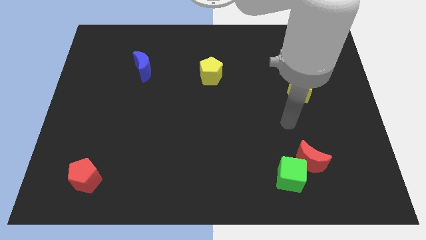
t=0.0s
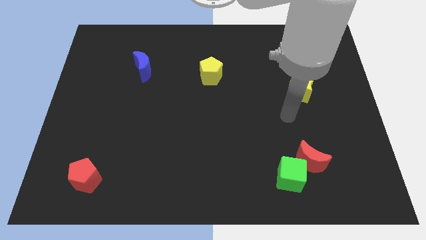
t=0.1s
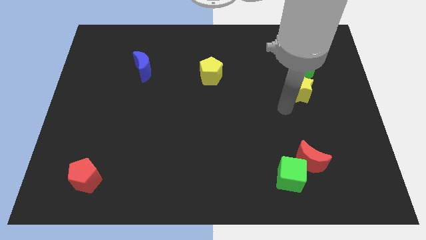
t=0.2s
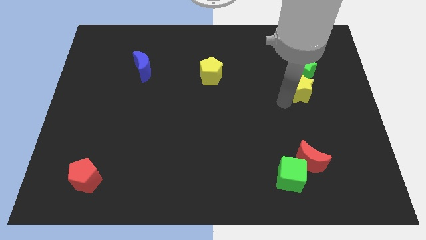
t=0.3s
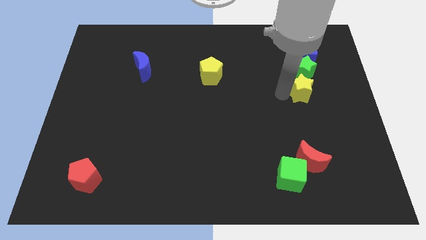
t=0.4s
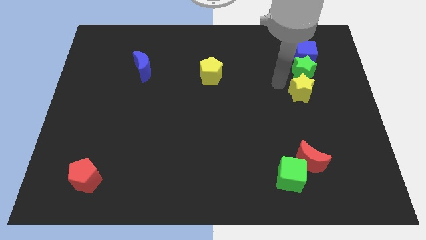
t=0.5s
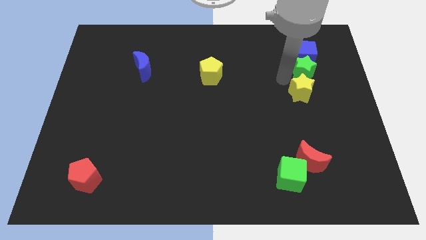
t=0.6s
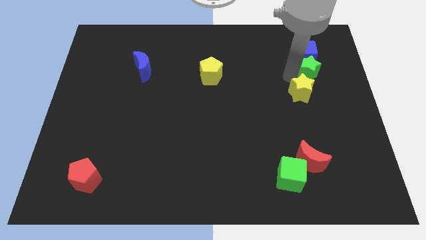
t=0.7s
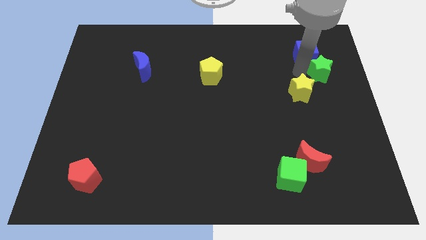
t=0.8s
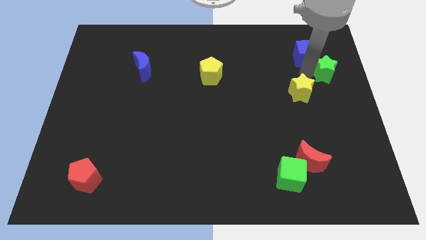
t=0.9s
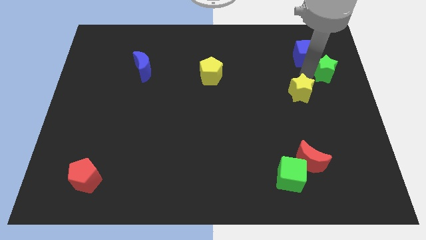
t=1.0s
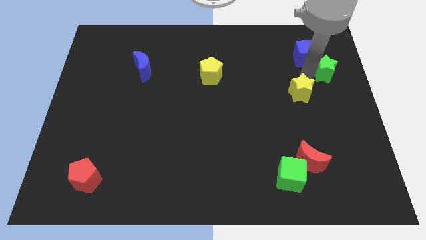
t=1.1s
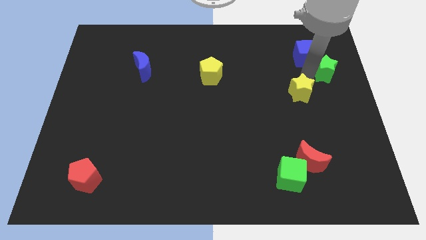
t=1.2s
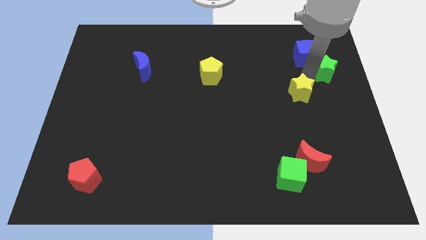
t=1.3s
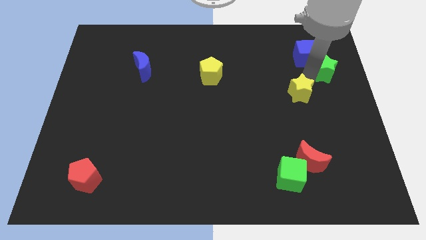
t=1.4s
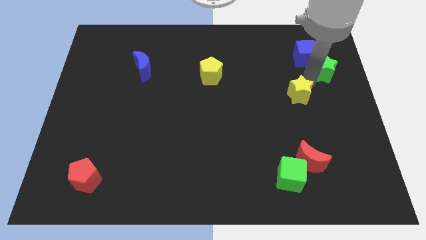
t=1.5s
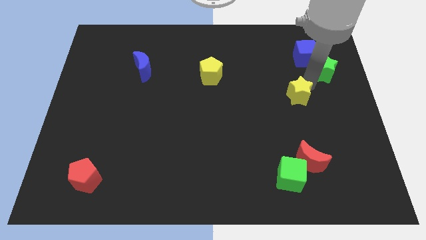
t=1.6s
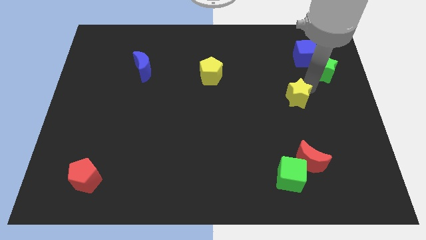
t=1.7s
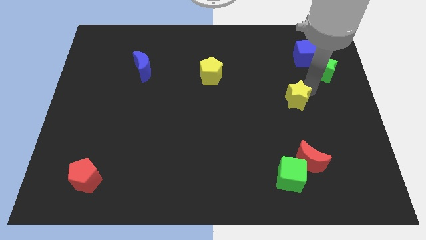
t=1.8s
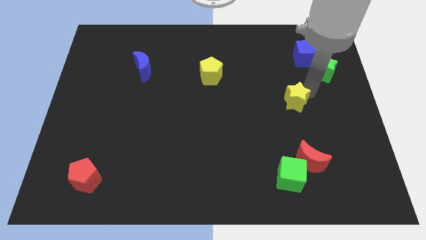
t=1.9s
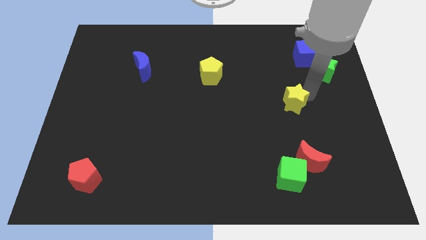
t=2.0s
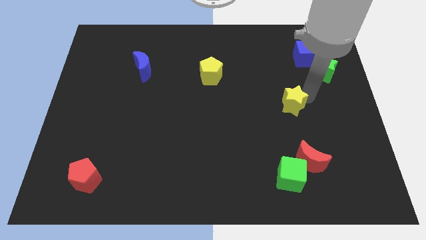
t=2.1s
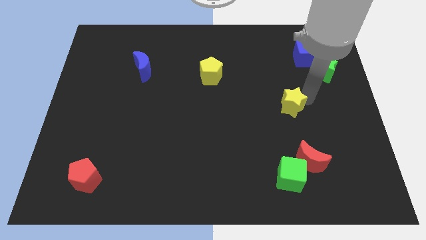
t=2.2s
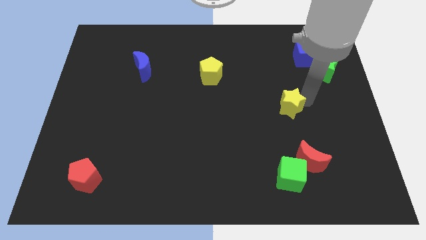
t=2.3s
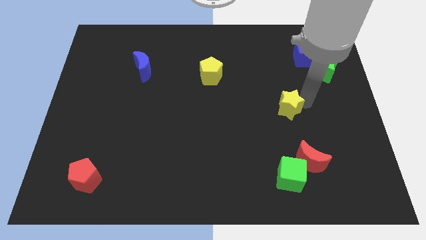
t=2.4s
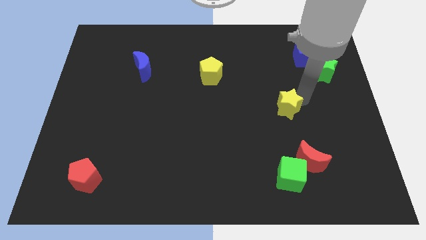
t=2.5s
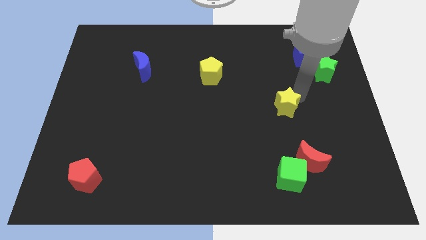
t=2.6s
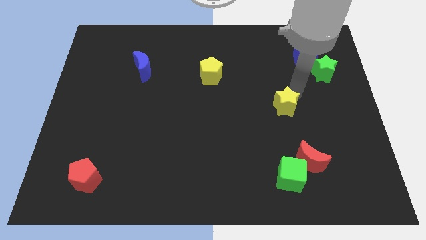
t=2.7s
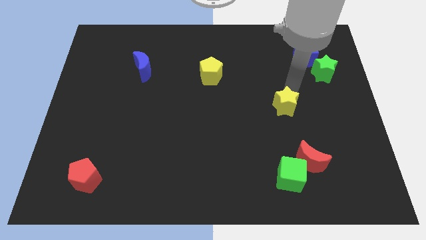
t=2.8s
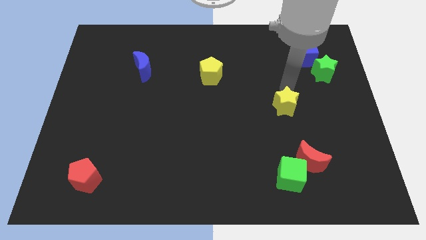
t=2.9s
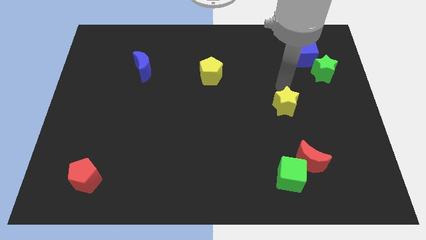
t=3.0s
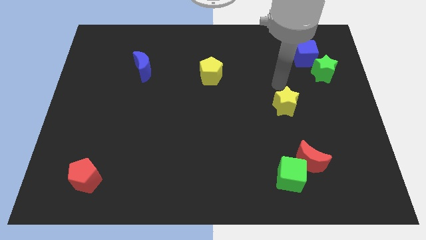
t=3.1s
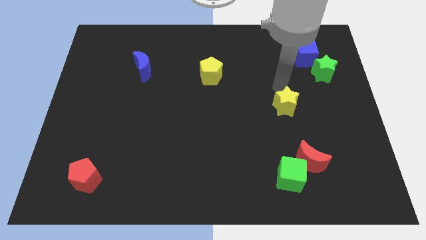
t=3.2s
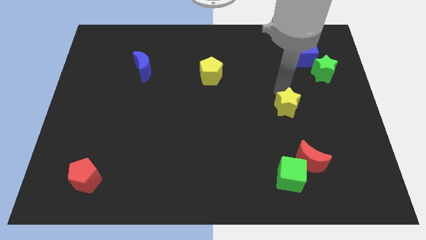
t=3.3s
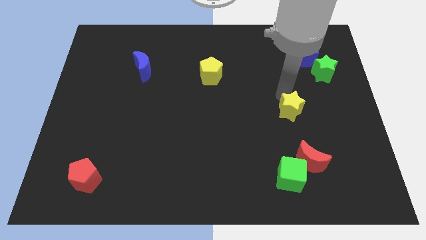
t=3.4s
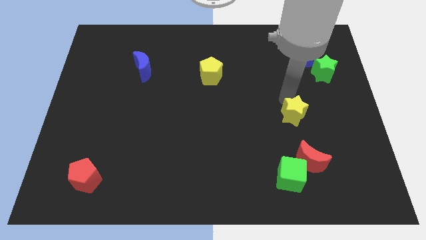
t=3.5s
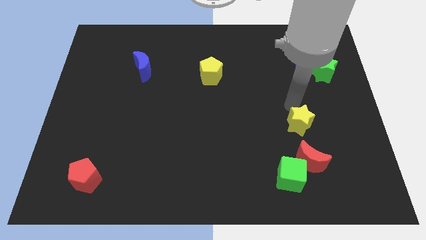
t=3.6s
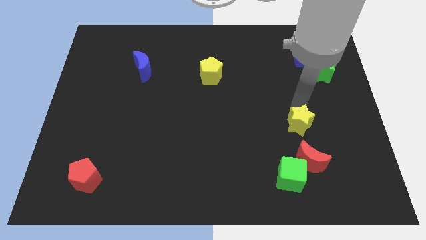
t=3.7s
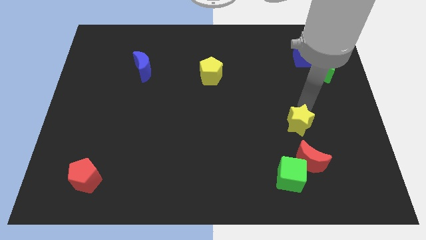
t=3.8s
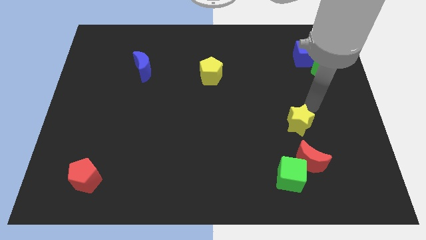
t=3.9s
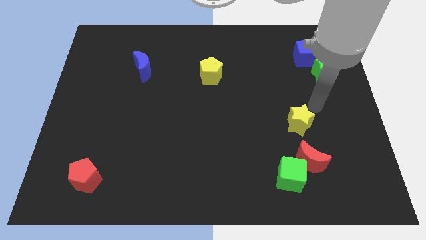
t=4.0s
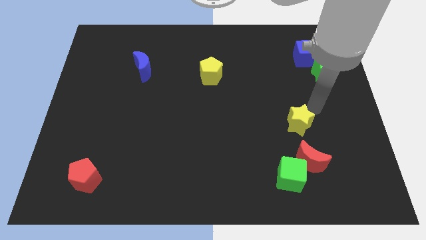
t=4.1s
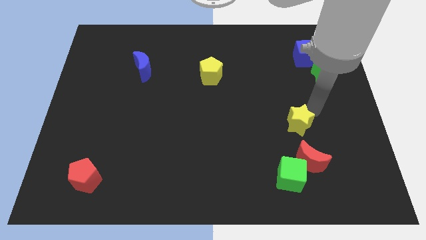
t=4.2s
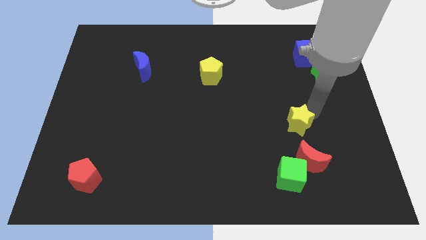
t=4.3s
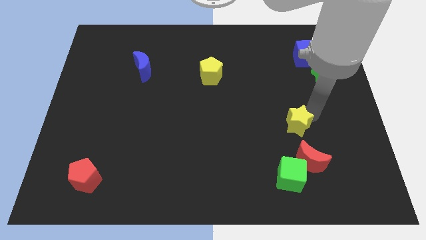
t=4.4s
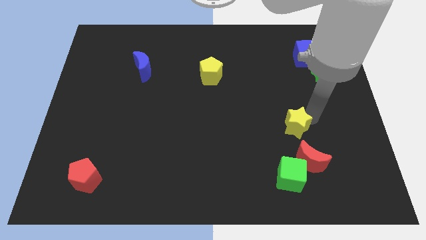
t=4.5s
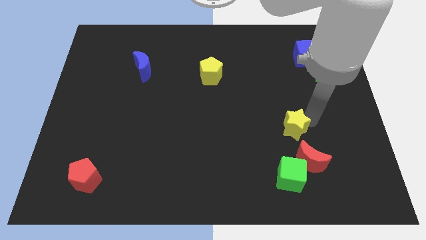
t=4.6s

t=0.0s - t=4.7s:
slide the yellow star diagonally up and to the left of the red moon

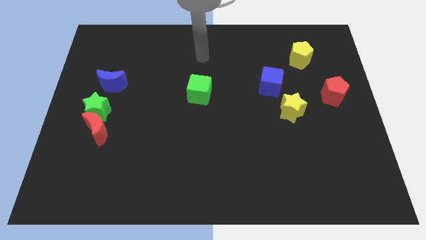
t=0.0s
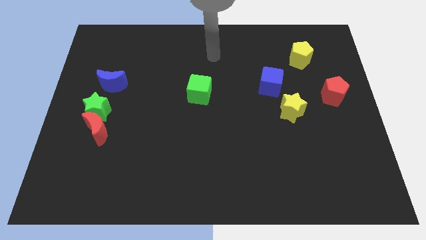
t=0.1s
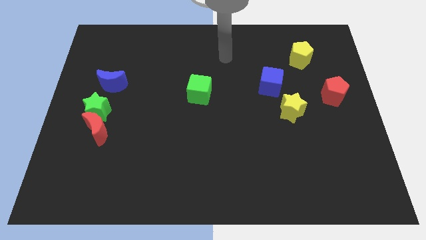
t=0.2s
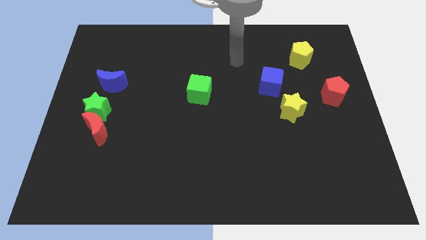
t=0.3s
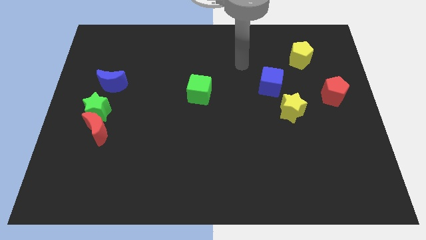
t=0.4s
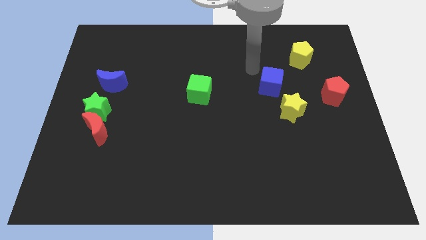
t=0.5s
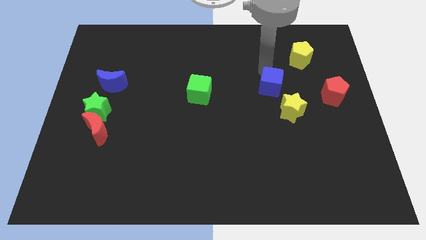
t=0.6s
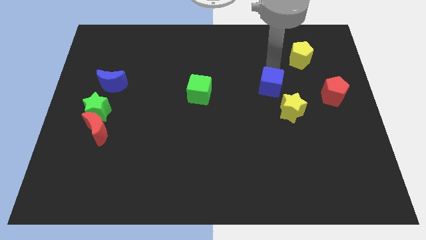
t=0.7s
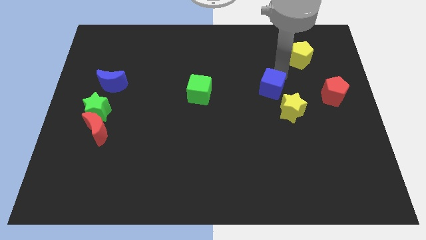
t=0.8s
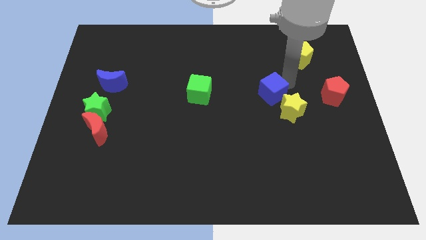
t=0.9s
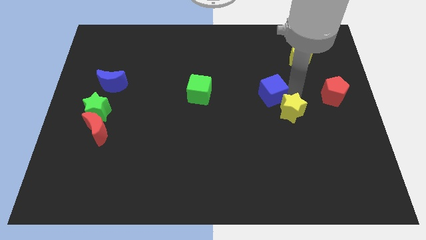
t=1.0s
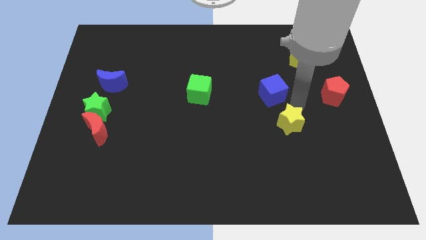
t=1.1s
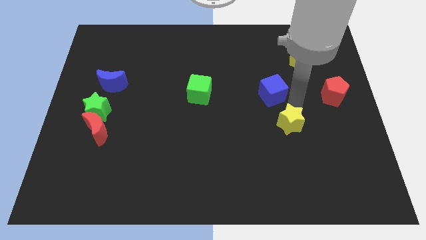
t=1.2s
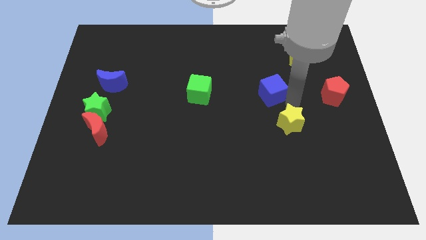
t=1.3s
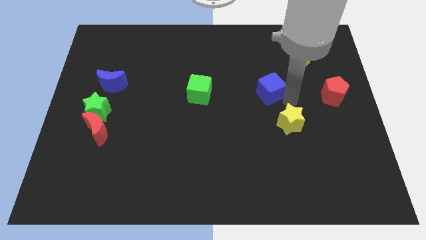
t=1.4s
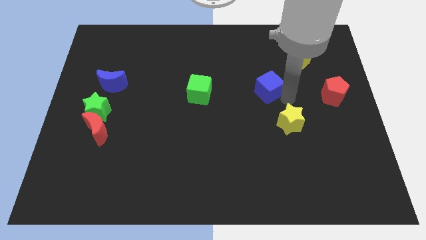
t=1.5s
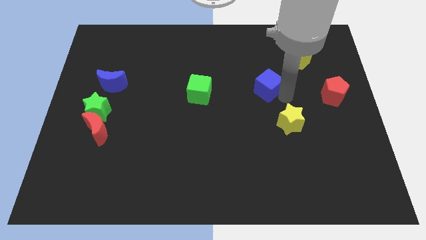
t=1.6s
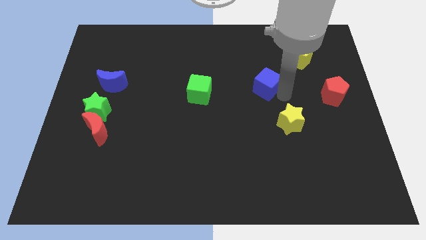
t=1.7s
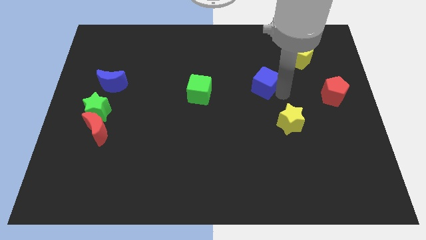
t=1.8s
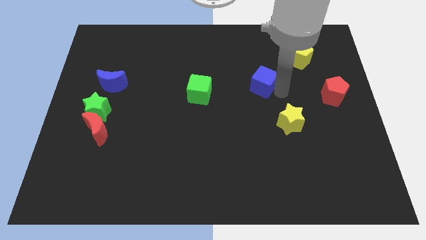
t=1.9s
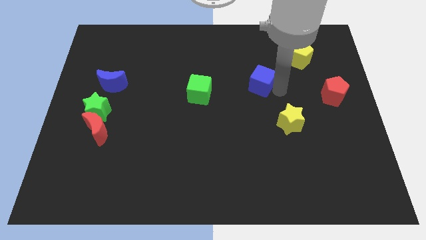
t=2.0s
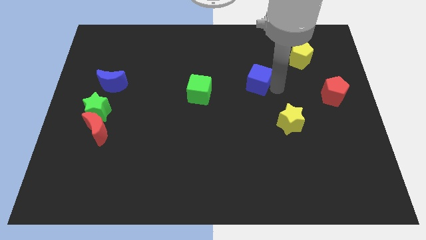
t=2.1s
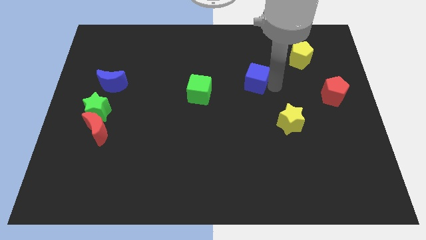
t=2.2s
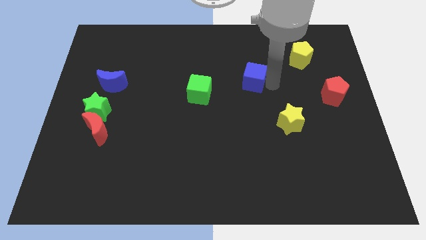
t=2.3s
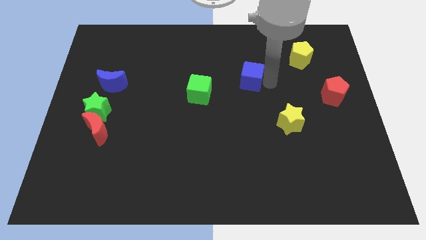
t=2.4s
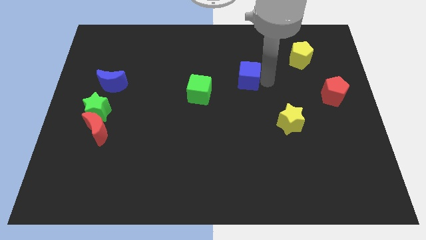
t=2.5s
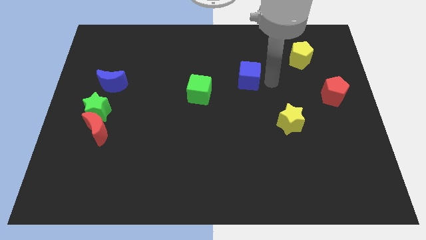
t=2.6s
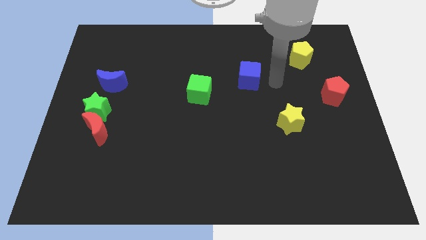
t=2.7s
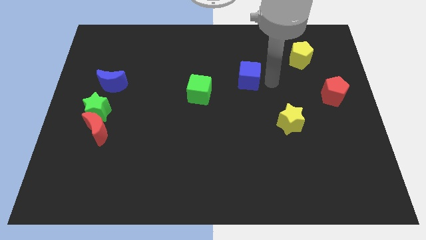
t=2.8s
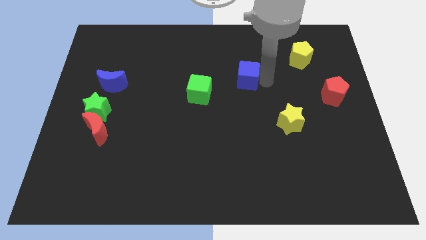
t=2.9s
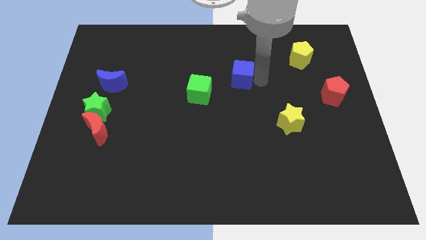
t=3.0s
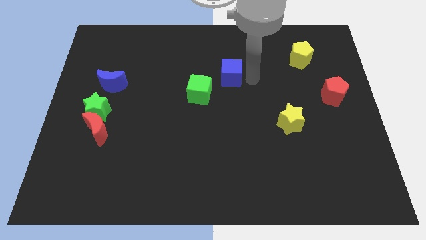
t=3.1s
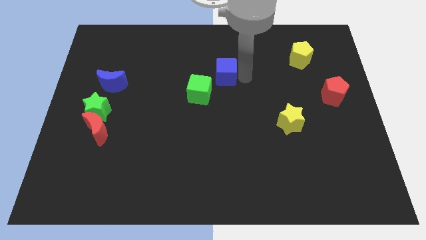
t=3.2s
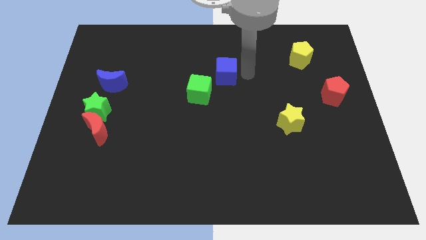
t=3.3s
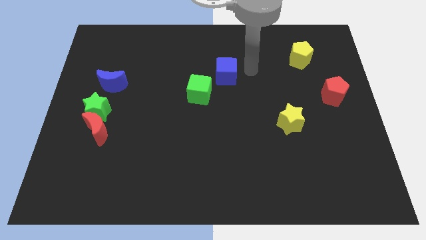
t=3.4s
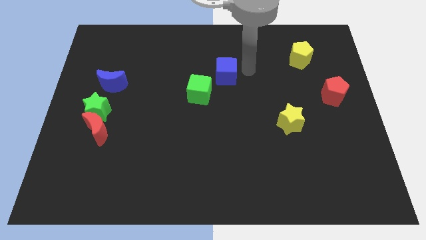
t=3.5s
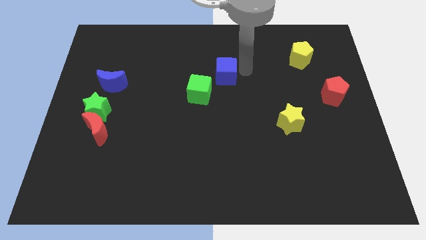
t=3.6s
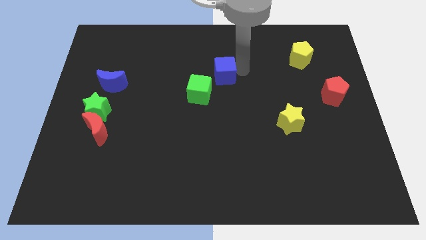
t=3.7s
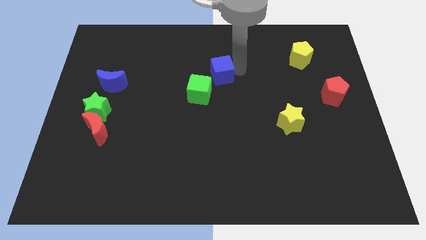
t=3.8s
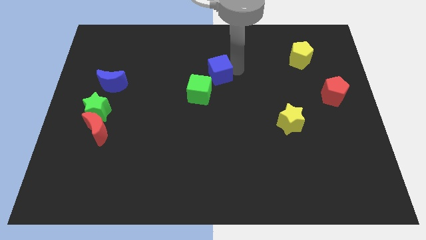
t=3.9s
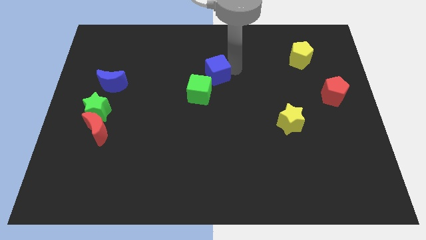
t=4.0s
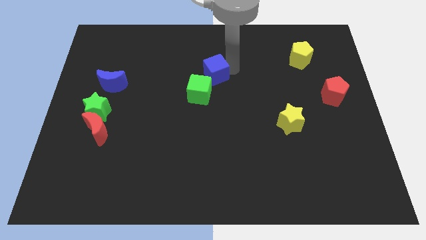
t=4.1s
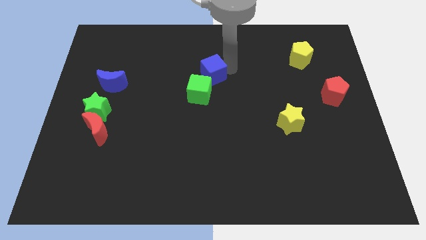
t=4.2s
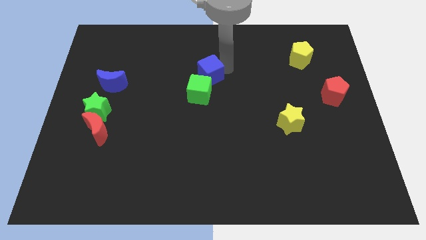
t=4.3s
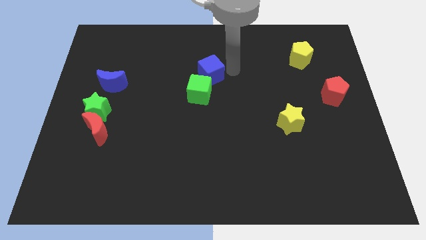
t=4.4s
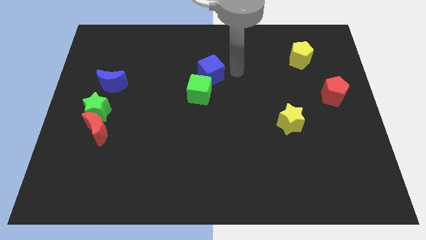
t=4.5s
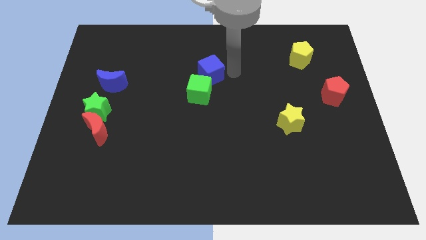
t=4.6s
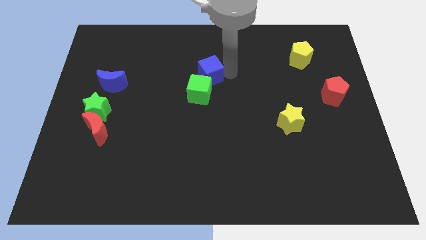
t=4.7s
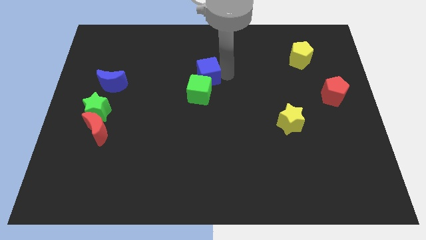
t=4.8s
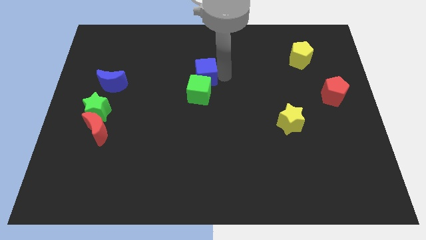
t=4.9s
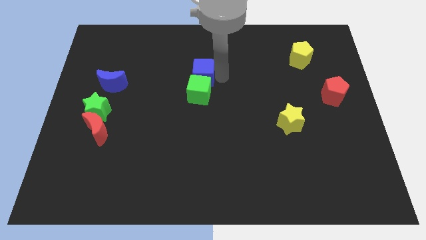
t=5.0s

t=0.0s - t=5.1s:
slide the blue cube to the top left side of the green cube
